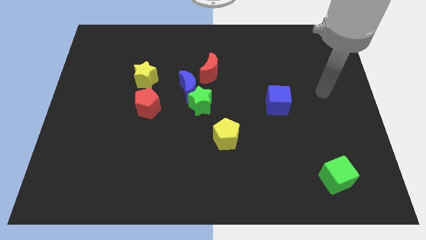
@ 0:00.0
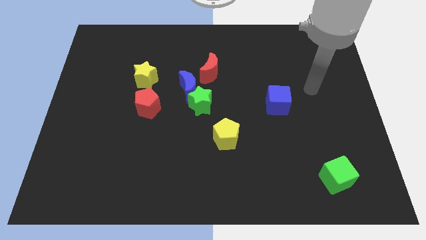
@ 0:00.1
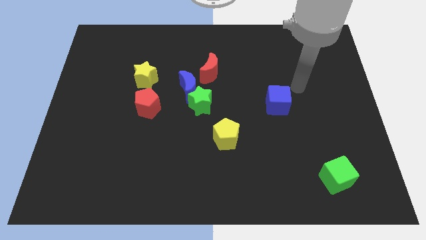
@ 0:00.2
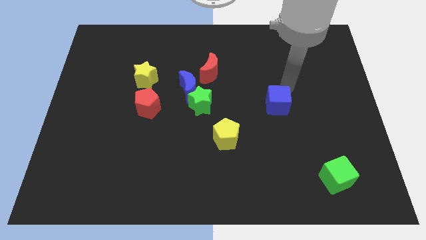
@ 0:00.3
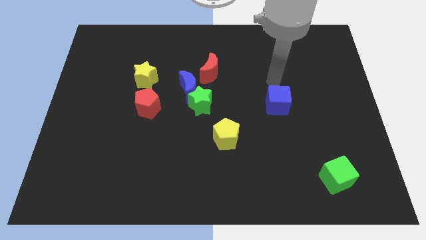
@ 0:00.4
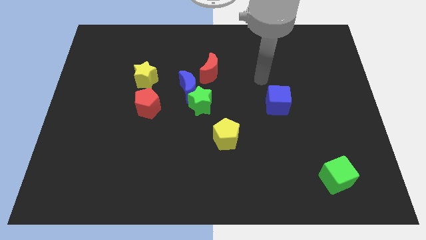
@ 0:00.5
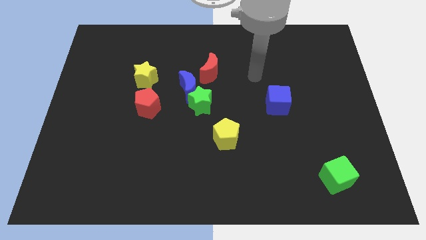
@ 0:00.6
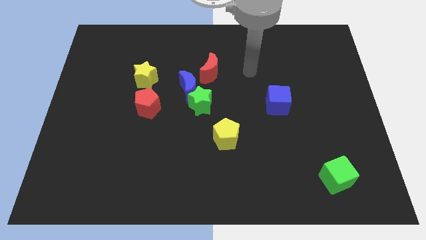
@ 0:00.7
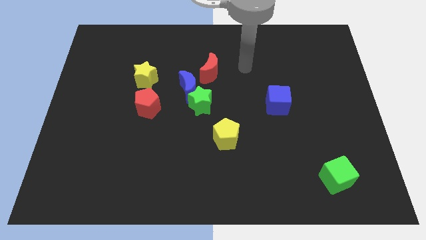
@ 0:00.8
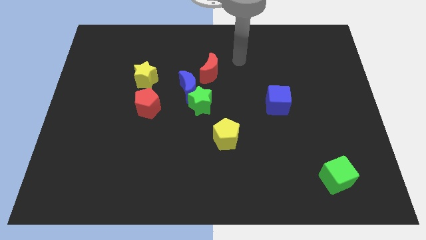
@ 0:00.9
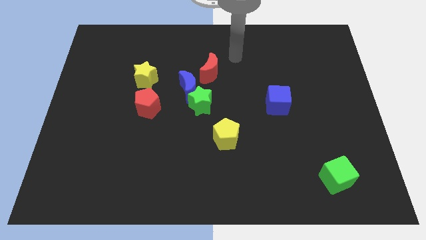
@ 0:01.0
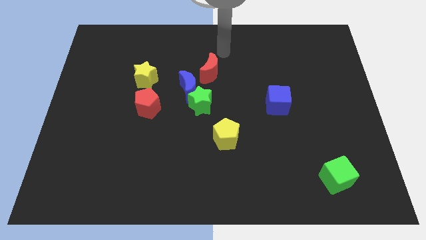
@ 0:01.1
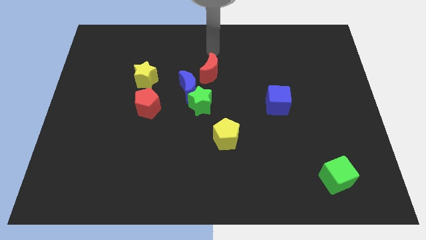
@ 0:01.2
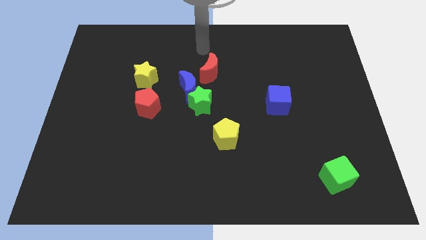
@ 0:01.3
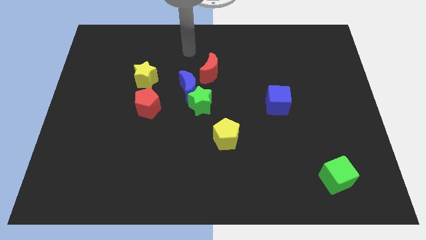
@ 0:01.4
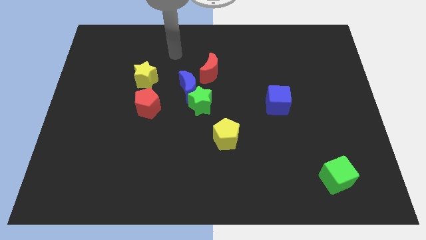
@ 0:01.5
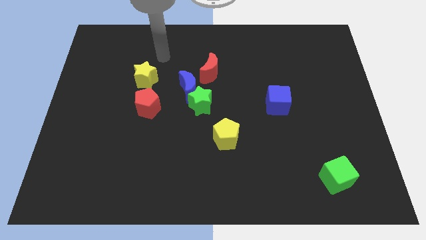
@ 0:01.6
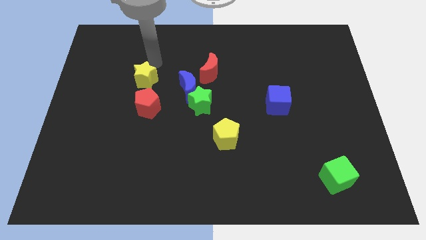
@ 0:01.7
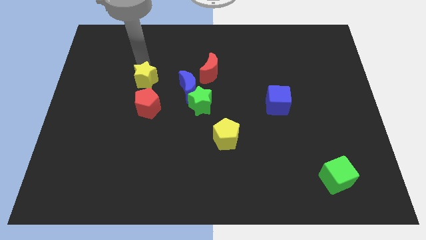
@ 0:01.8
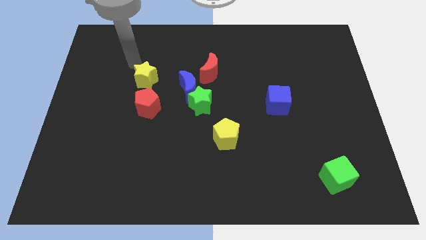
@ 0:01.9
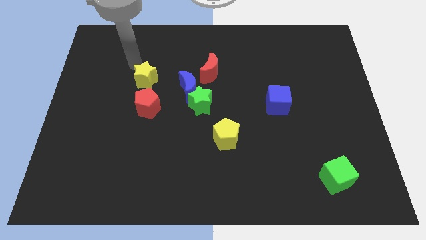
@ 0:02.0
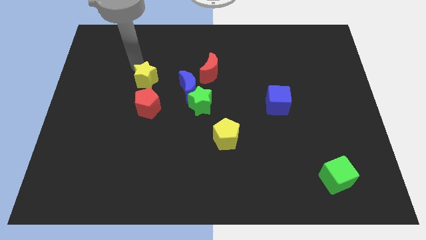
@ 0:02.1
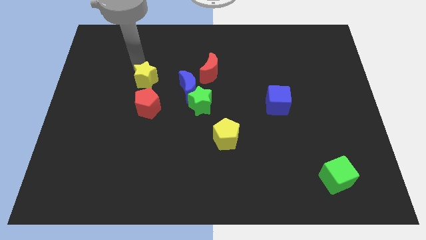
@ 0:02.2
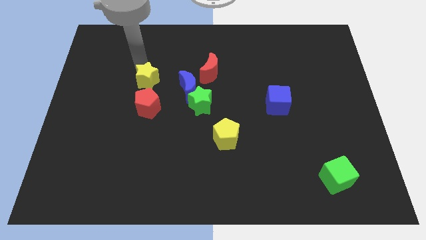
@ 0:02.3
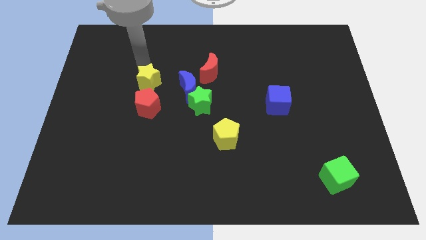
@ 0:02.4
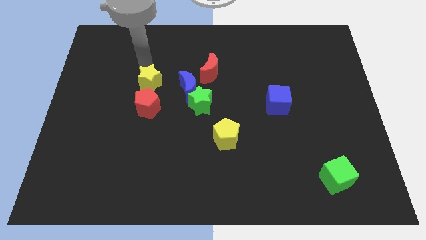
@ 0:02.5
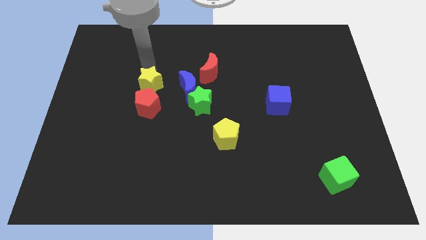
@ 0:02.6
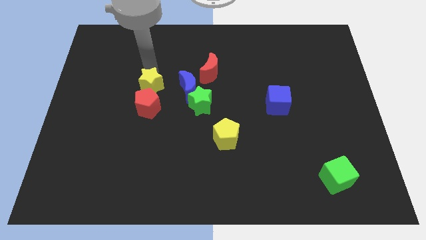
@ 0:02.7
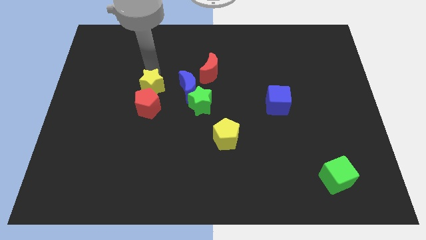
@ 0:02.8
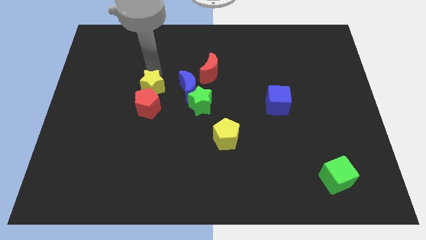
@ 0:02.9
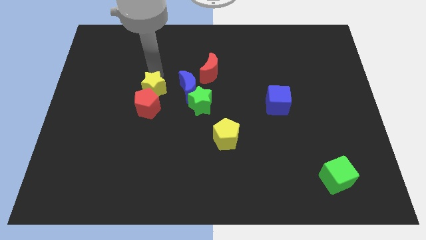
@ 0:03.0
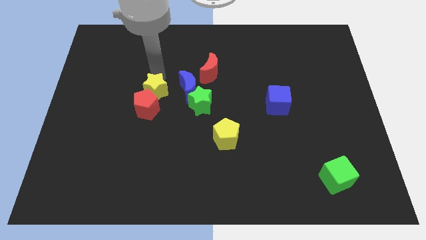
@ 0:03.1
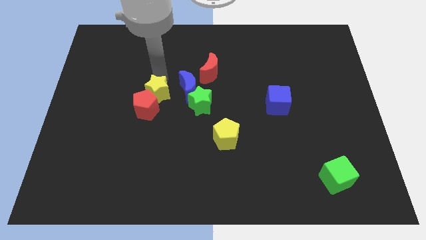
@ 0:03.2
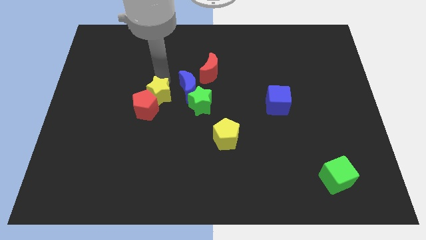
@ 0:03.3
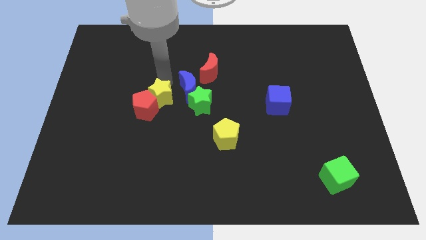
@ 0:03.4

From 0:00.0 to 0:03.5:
move the yellow star down and to the right a little

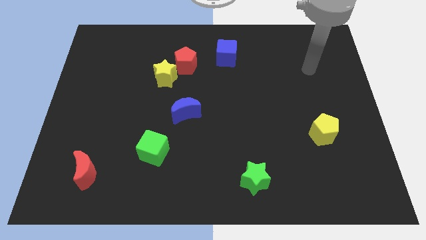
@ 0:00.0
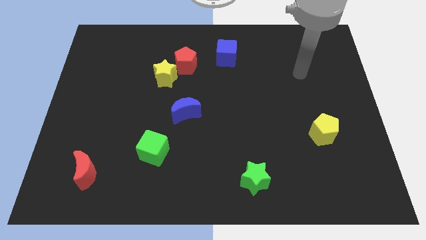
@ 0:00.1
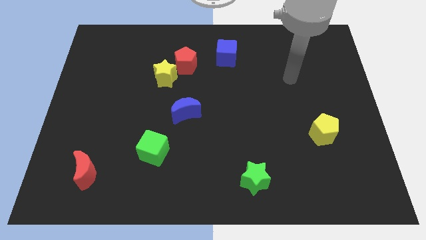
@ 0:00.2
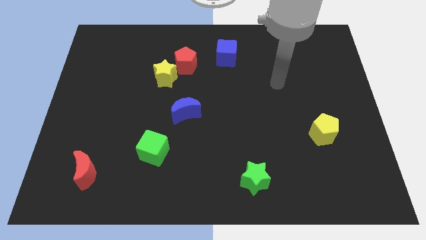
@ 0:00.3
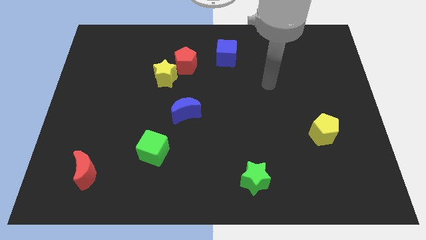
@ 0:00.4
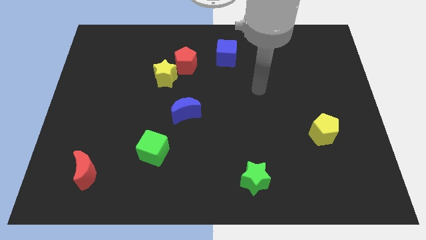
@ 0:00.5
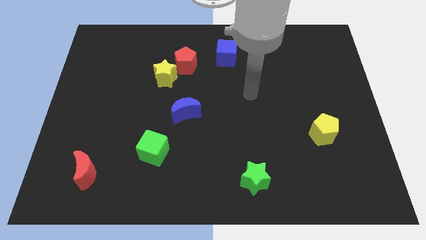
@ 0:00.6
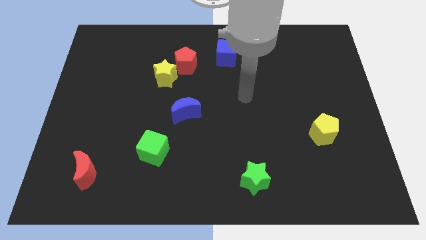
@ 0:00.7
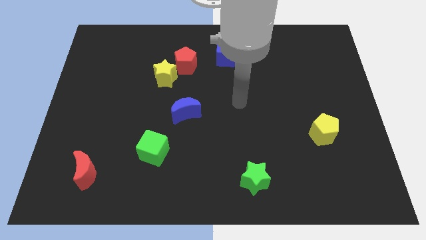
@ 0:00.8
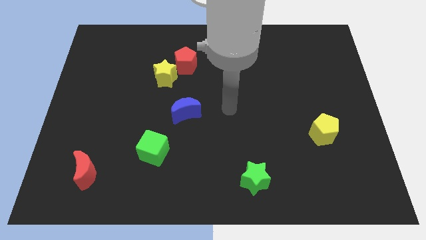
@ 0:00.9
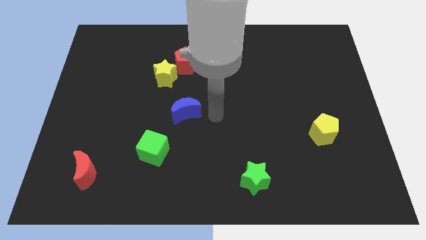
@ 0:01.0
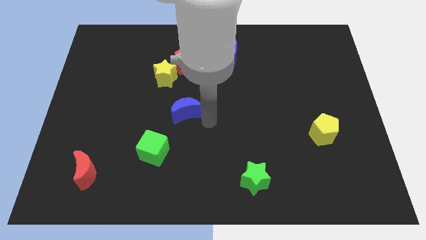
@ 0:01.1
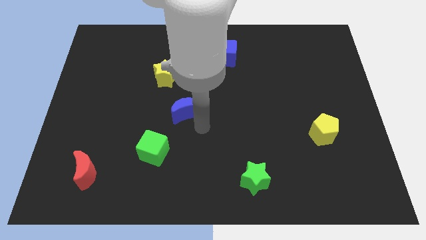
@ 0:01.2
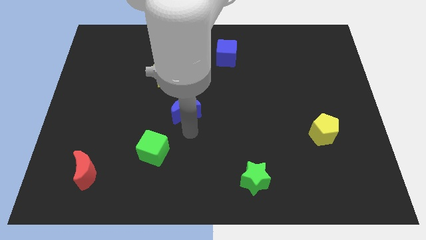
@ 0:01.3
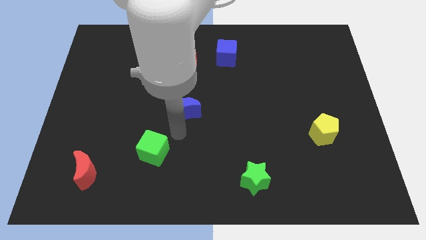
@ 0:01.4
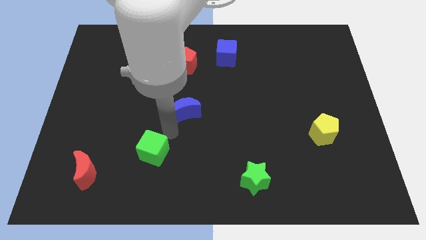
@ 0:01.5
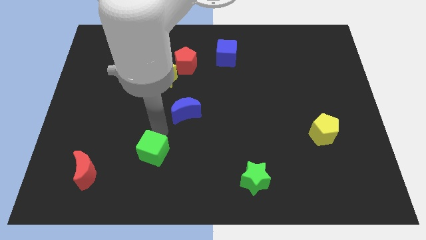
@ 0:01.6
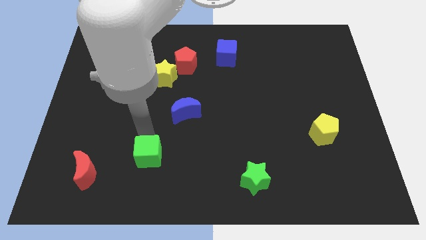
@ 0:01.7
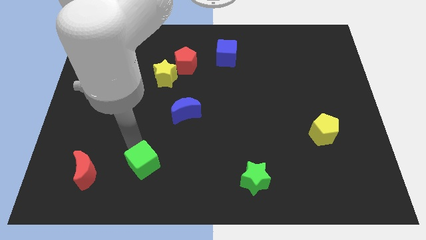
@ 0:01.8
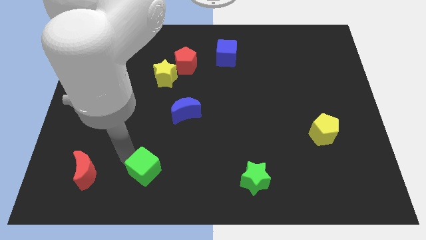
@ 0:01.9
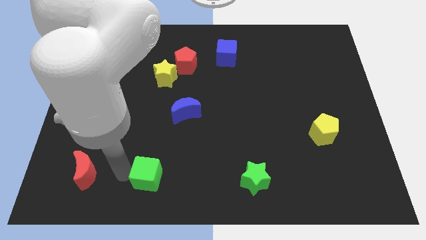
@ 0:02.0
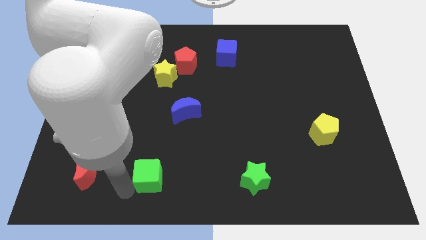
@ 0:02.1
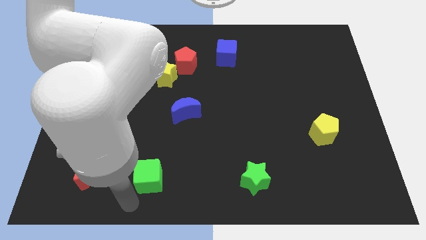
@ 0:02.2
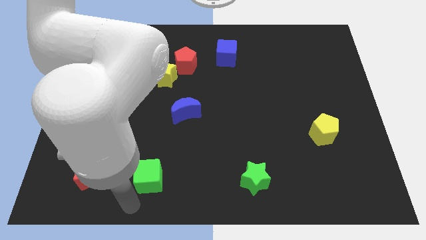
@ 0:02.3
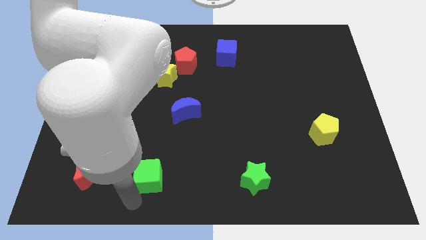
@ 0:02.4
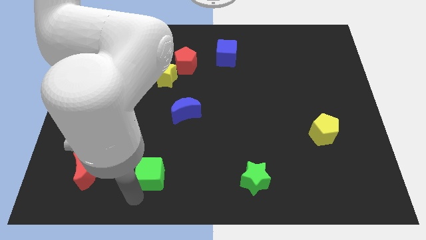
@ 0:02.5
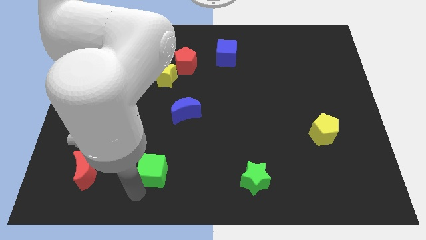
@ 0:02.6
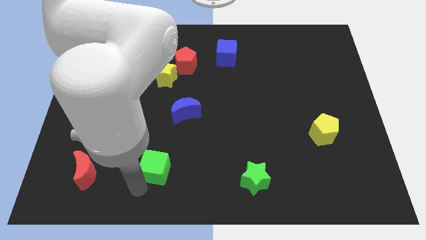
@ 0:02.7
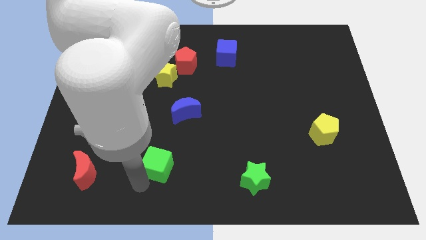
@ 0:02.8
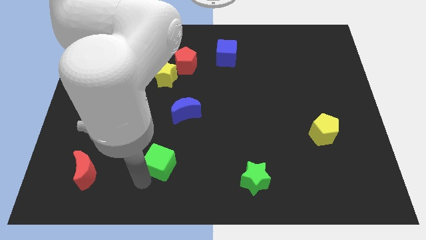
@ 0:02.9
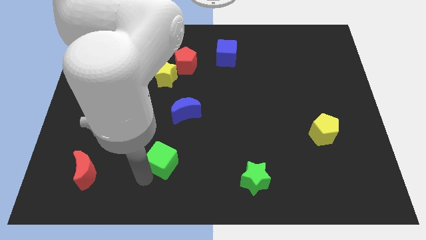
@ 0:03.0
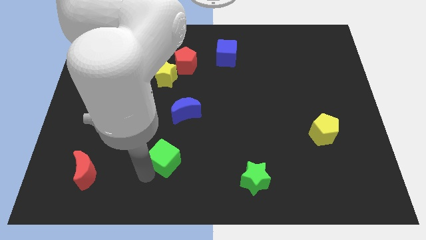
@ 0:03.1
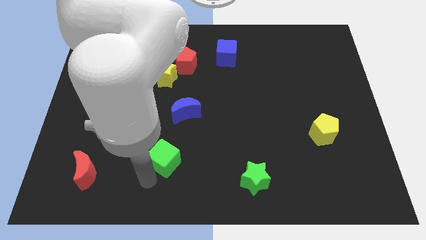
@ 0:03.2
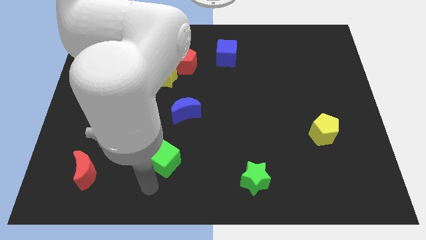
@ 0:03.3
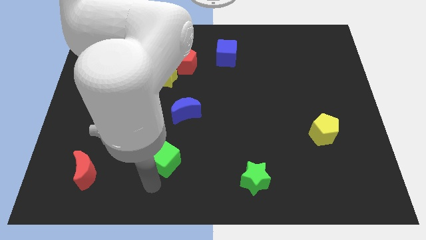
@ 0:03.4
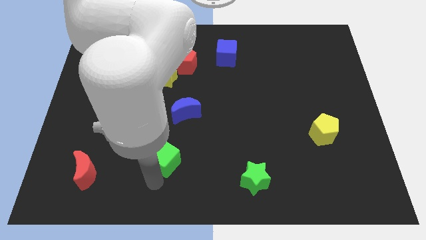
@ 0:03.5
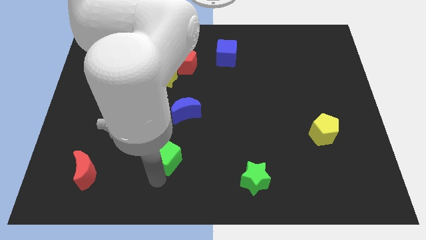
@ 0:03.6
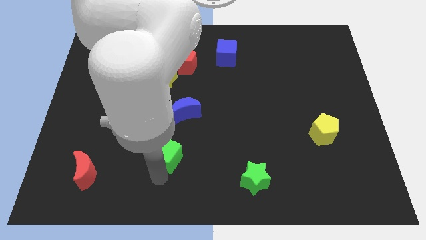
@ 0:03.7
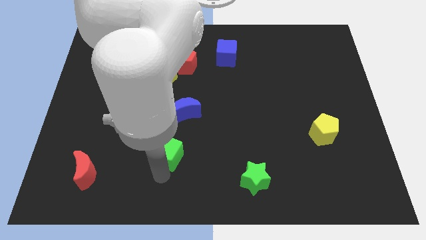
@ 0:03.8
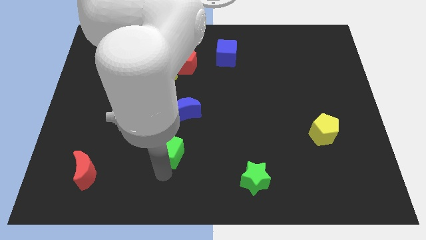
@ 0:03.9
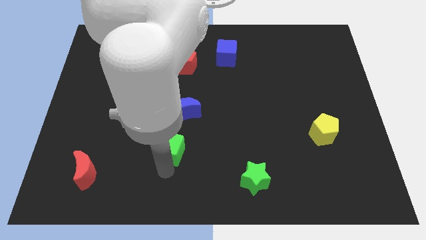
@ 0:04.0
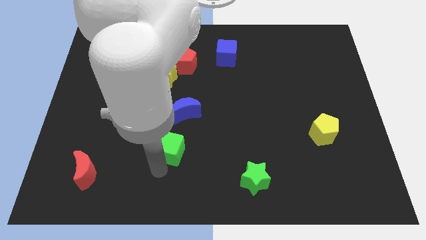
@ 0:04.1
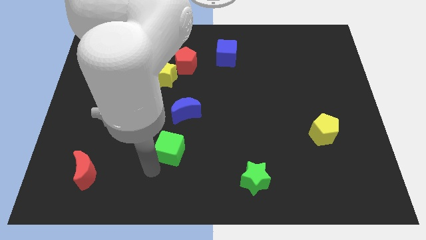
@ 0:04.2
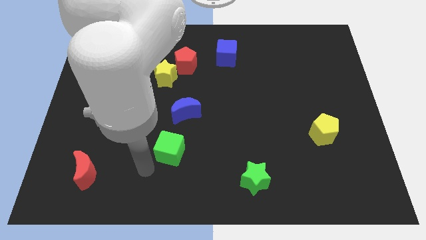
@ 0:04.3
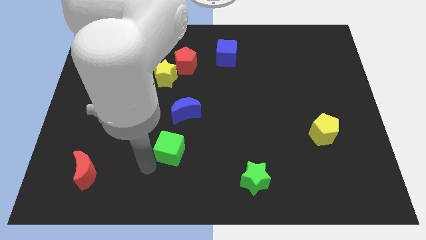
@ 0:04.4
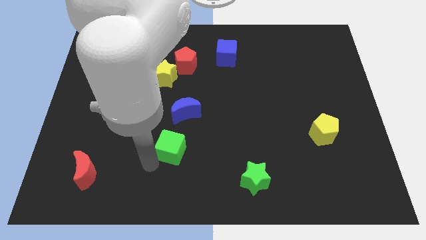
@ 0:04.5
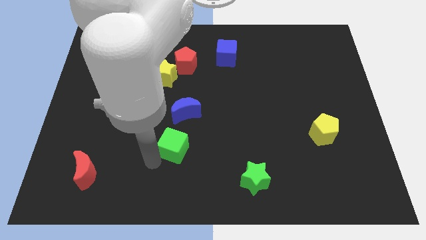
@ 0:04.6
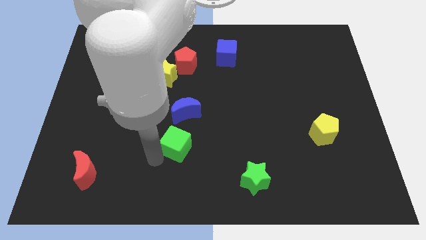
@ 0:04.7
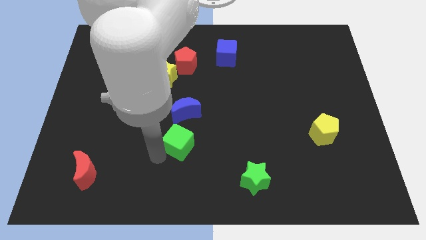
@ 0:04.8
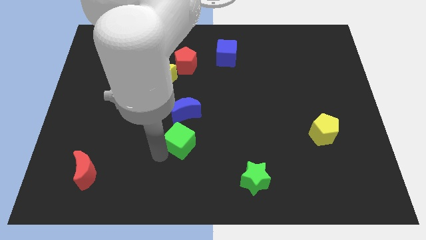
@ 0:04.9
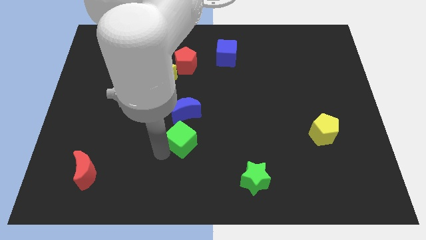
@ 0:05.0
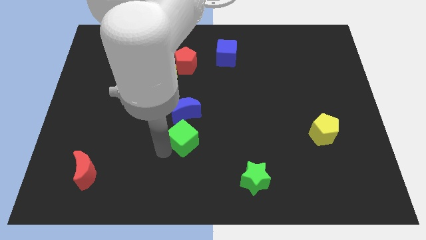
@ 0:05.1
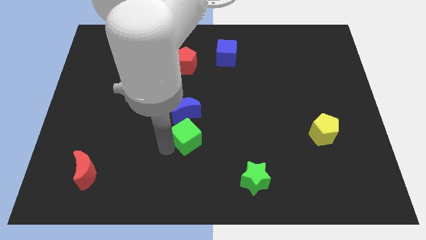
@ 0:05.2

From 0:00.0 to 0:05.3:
slide the green cube a little up and then right
